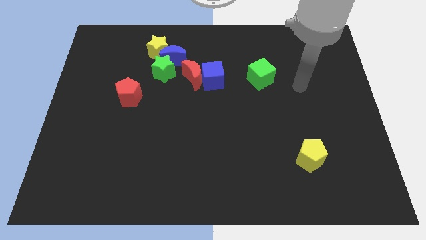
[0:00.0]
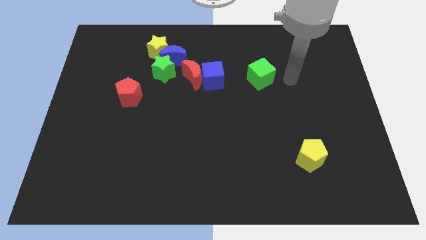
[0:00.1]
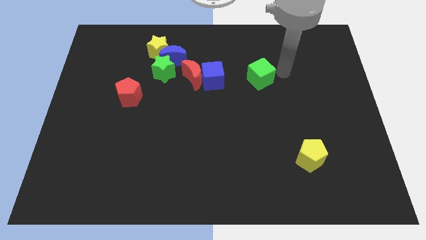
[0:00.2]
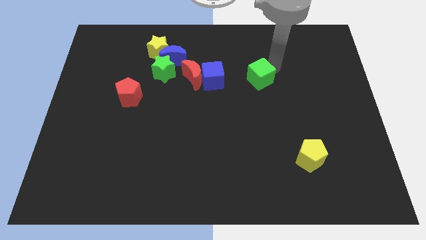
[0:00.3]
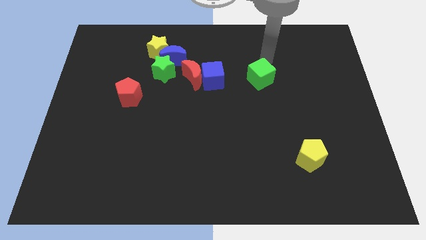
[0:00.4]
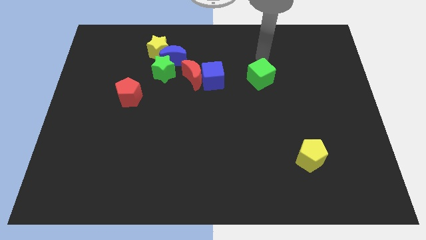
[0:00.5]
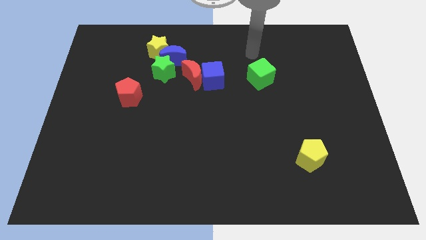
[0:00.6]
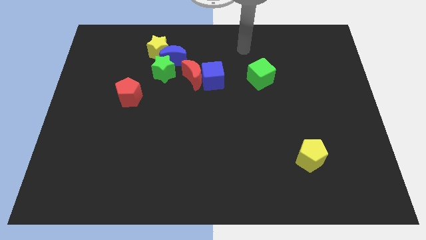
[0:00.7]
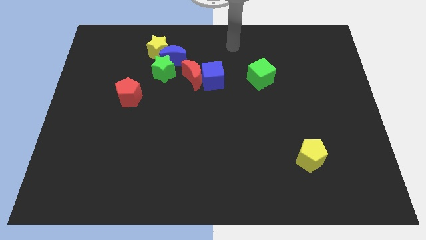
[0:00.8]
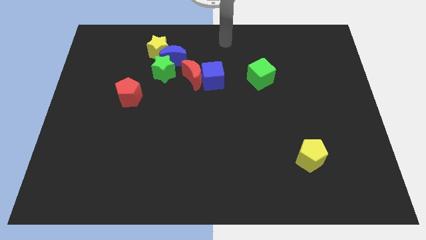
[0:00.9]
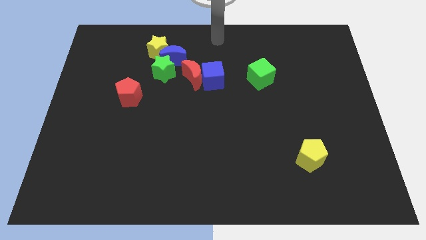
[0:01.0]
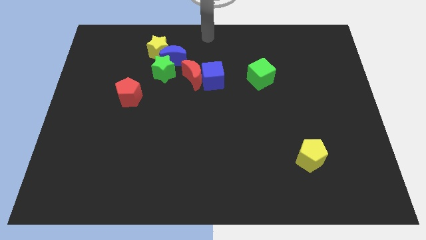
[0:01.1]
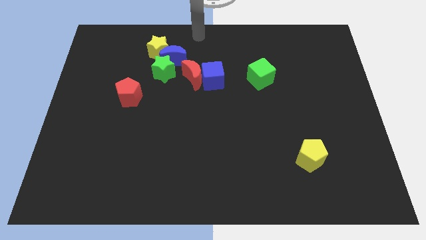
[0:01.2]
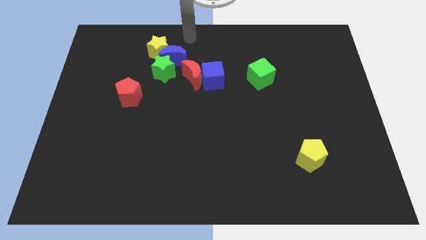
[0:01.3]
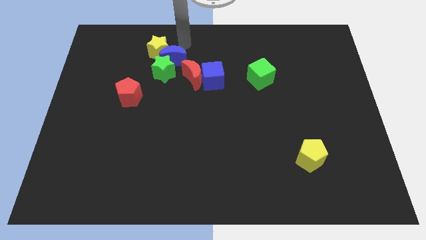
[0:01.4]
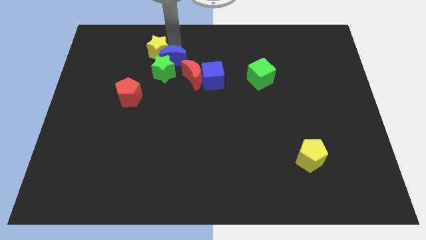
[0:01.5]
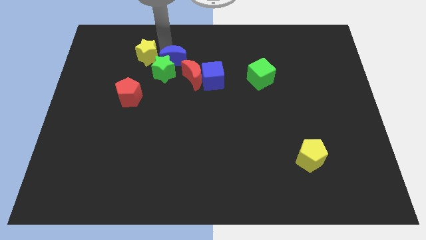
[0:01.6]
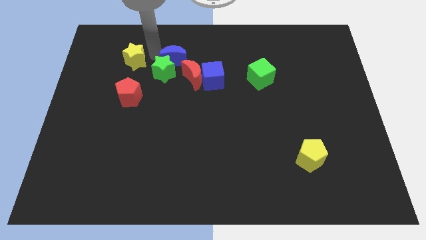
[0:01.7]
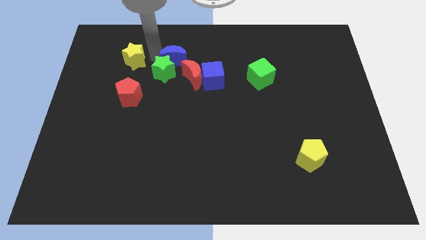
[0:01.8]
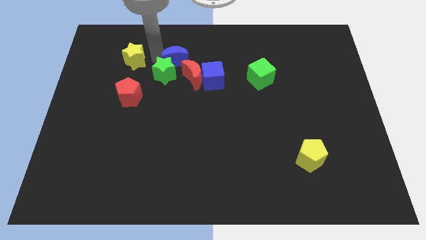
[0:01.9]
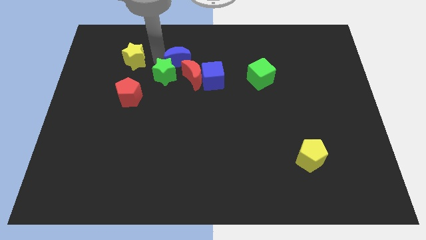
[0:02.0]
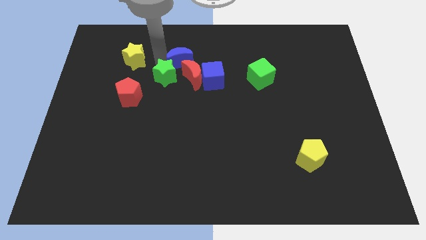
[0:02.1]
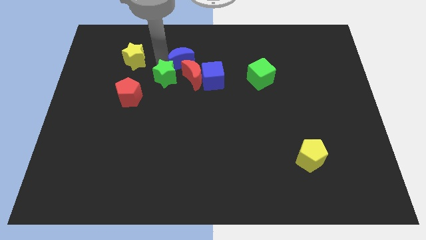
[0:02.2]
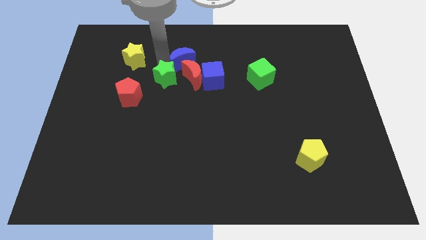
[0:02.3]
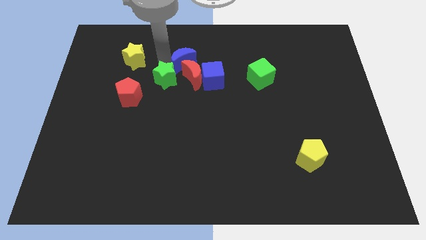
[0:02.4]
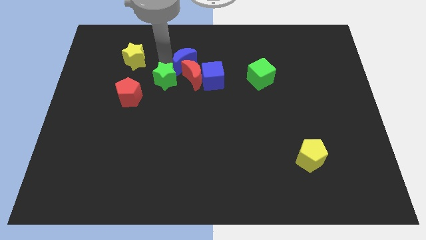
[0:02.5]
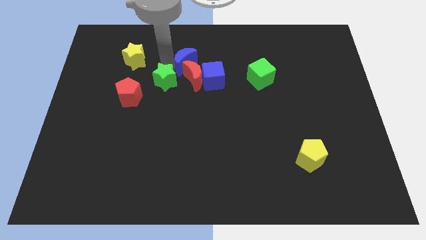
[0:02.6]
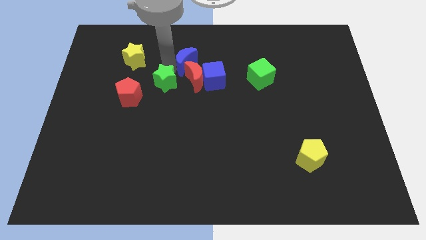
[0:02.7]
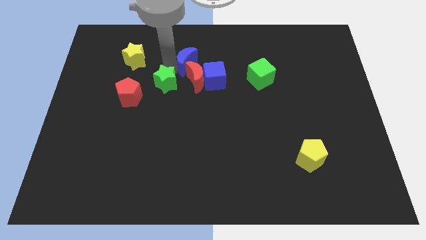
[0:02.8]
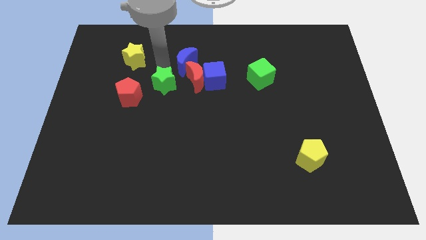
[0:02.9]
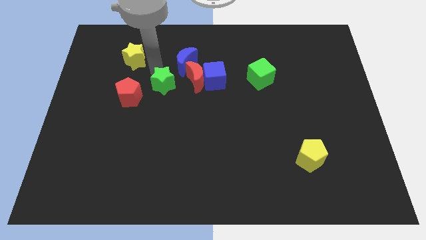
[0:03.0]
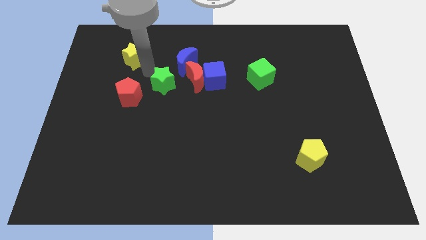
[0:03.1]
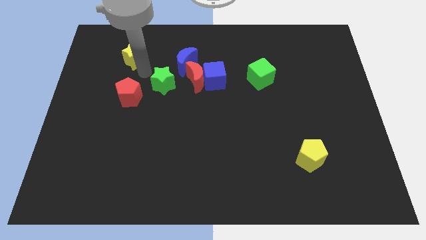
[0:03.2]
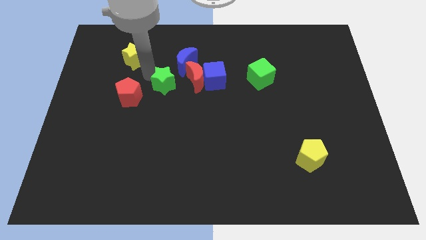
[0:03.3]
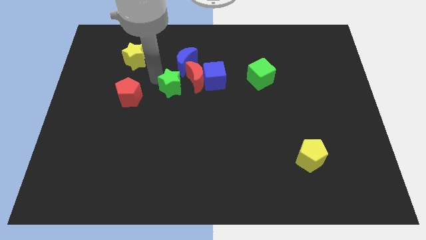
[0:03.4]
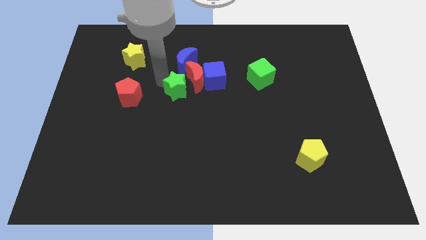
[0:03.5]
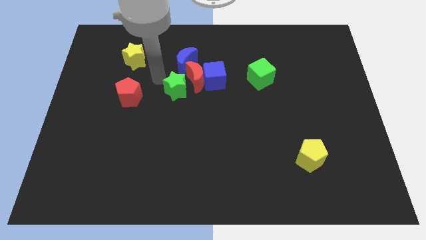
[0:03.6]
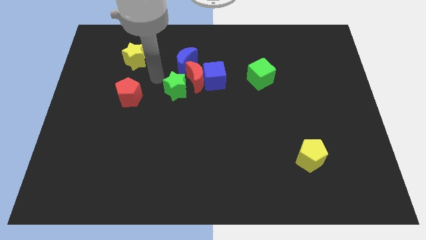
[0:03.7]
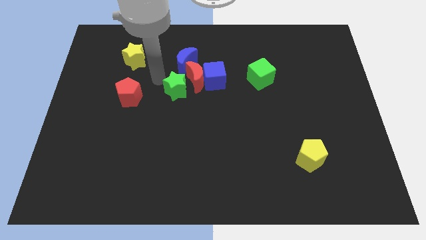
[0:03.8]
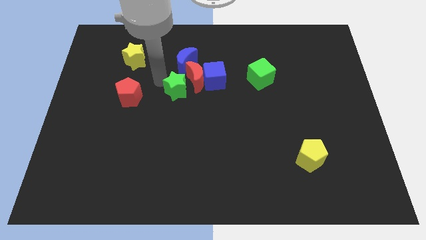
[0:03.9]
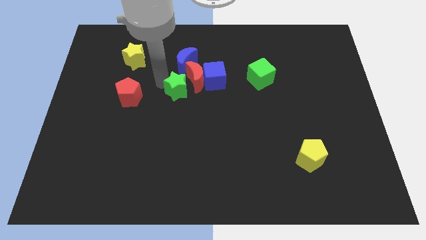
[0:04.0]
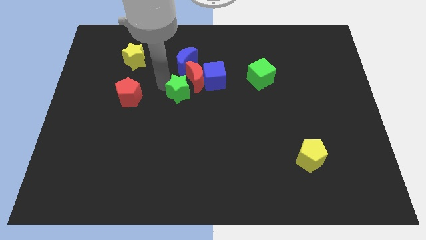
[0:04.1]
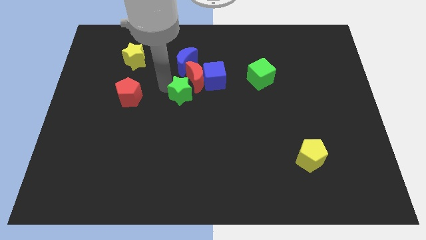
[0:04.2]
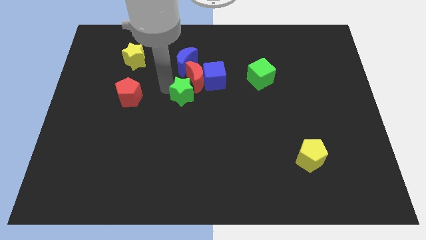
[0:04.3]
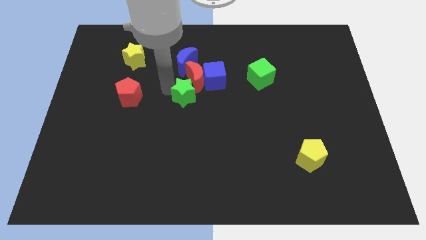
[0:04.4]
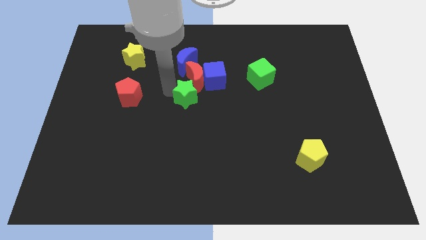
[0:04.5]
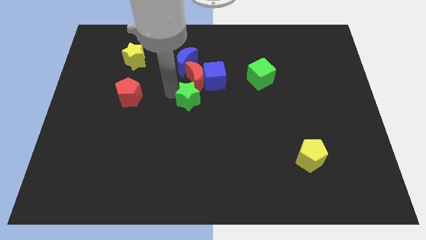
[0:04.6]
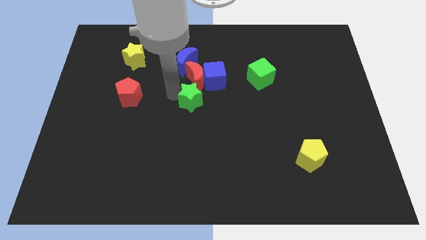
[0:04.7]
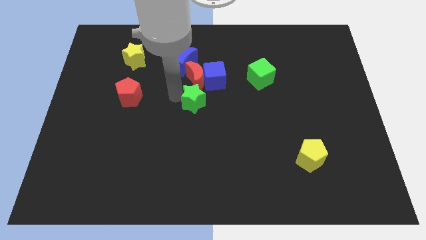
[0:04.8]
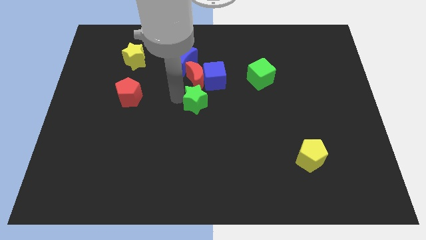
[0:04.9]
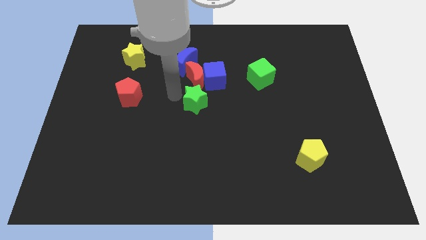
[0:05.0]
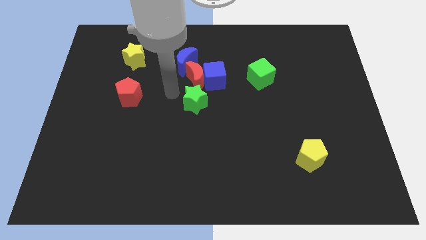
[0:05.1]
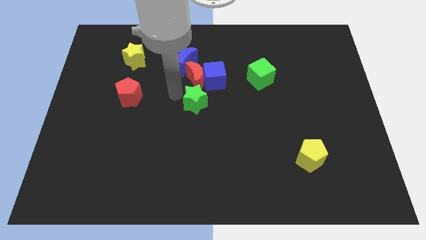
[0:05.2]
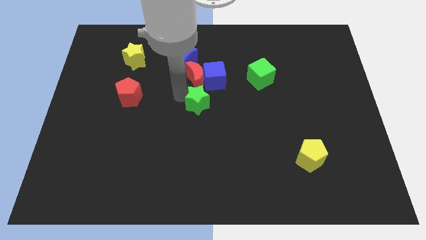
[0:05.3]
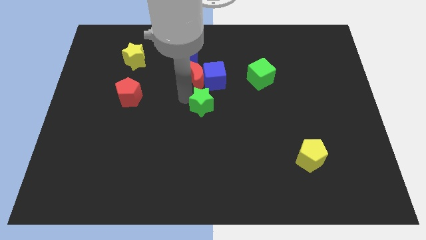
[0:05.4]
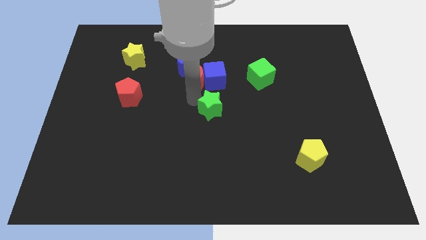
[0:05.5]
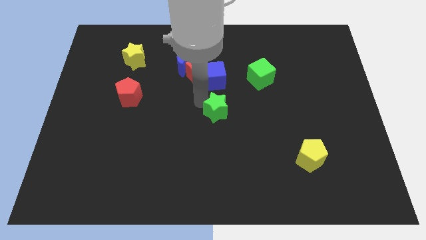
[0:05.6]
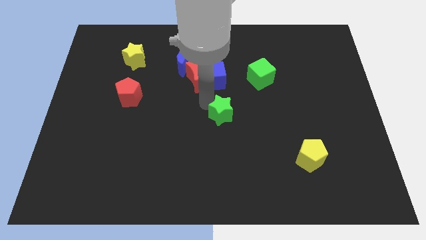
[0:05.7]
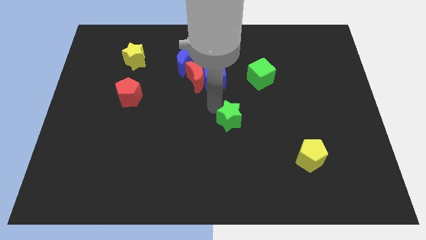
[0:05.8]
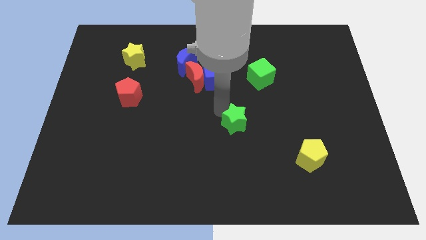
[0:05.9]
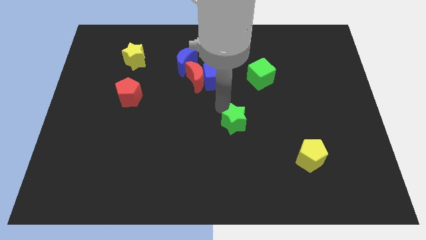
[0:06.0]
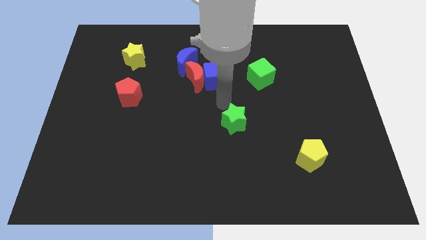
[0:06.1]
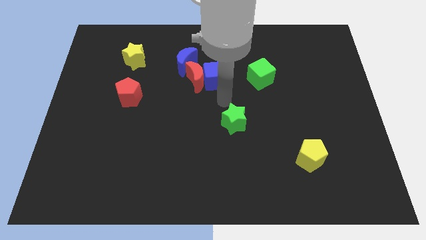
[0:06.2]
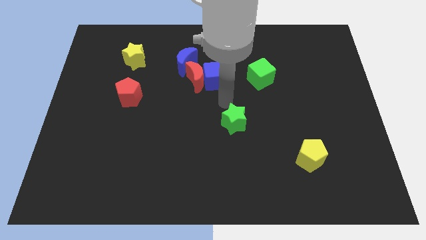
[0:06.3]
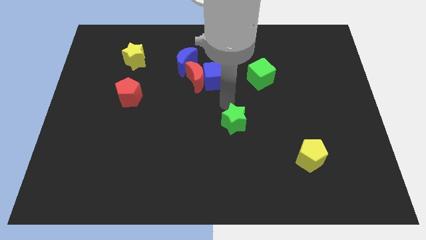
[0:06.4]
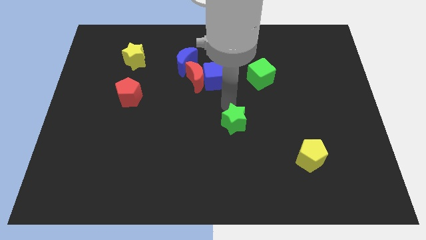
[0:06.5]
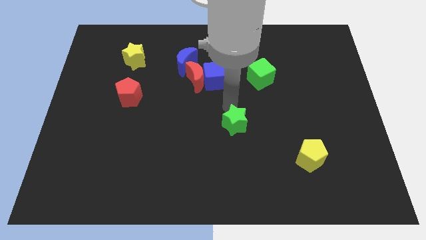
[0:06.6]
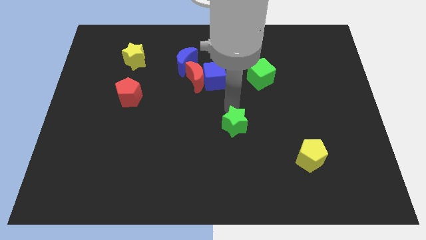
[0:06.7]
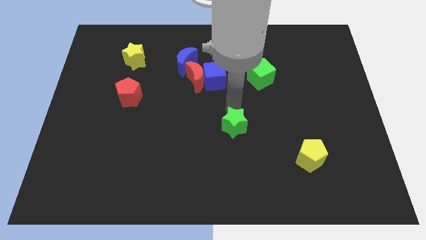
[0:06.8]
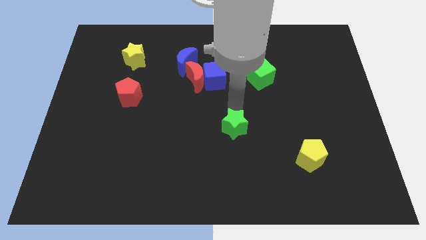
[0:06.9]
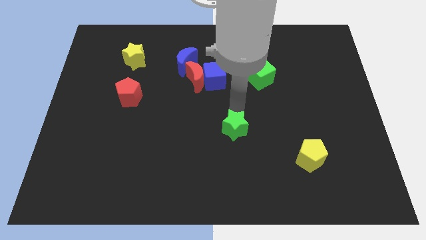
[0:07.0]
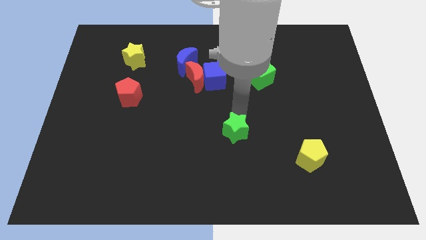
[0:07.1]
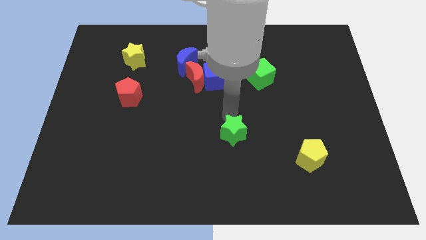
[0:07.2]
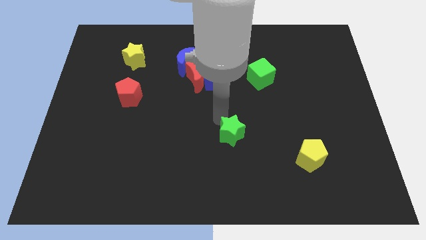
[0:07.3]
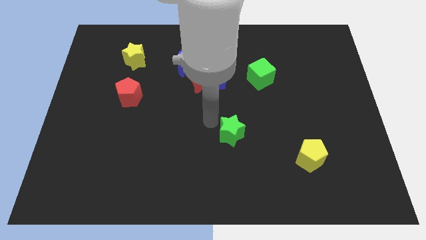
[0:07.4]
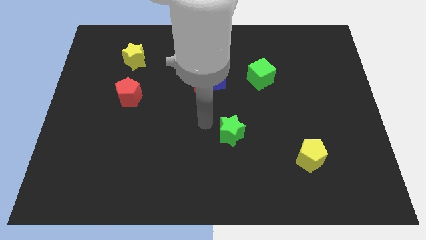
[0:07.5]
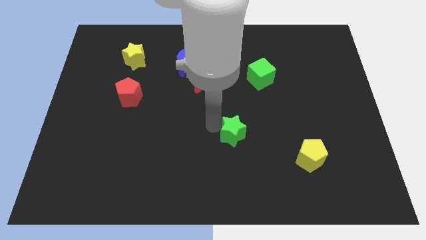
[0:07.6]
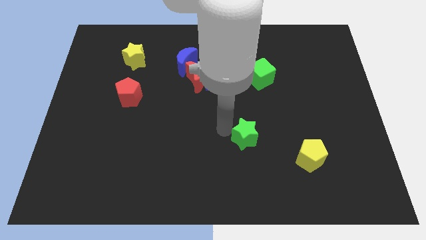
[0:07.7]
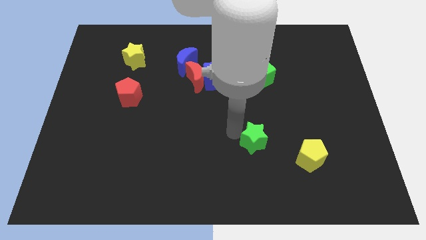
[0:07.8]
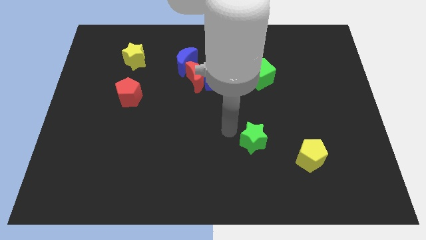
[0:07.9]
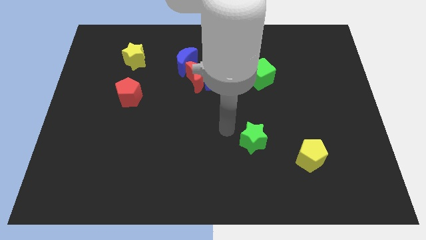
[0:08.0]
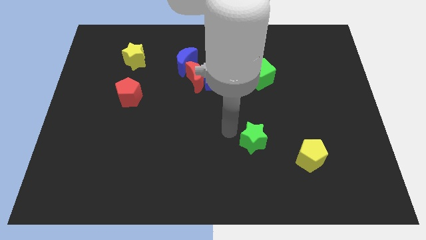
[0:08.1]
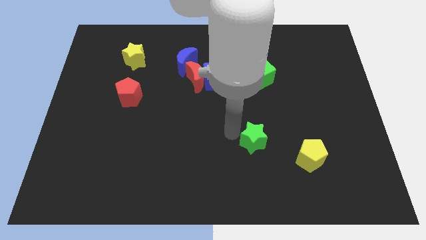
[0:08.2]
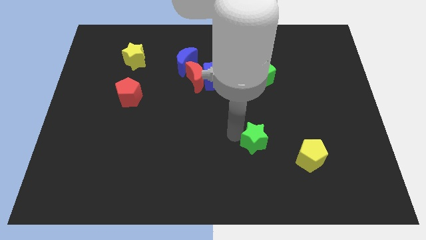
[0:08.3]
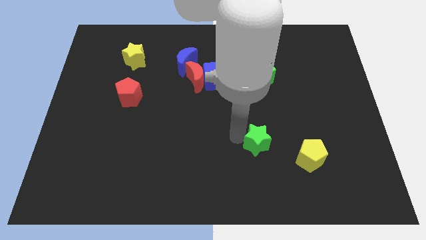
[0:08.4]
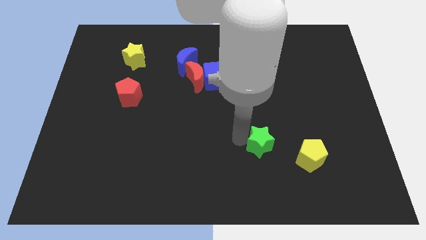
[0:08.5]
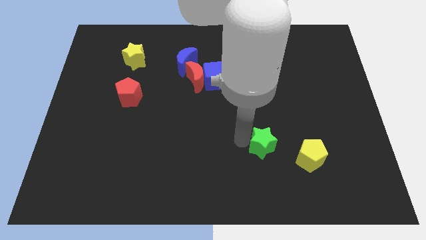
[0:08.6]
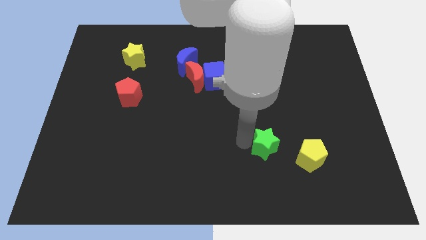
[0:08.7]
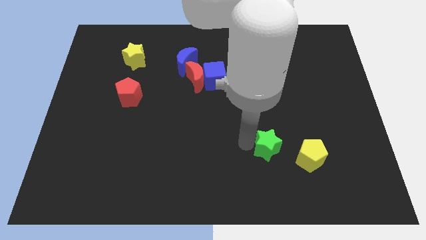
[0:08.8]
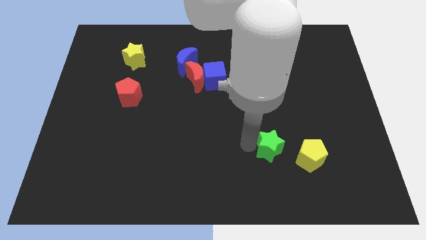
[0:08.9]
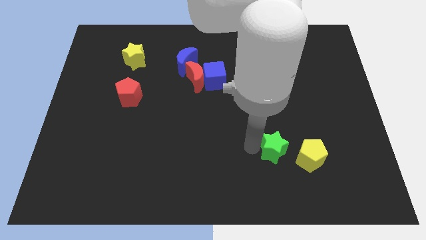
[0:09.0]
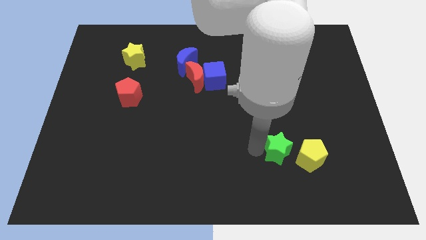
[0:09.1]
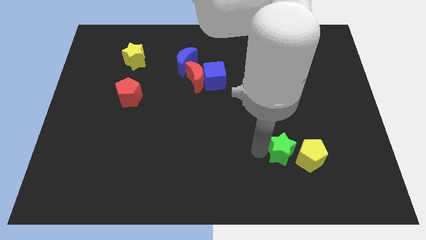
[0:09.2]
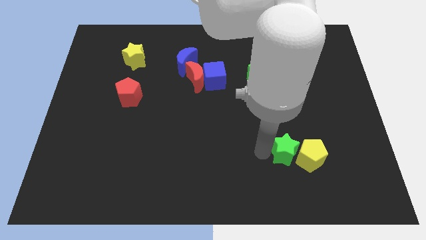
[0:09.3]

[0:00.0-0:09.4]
move the green star next to the yellow pentagon
